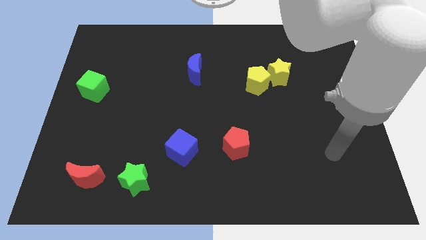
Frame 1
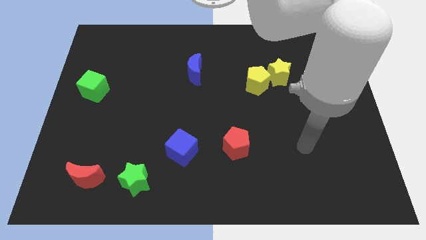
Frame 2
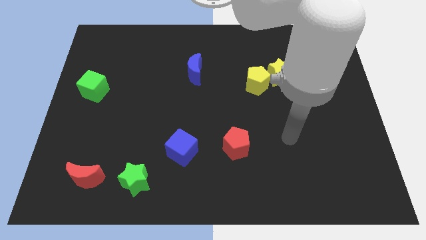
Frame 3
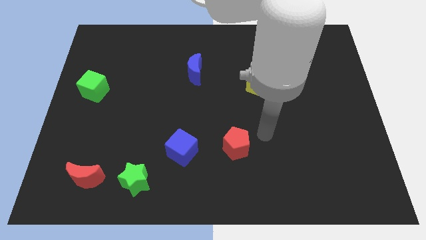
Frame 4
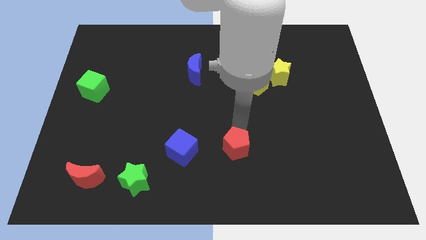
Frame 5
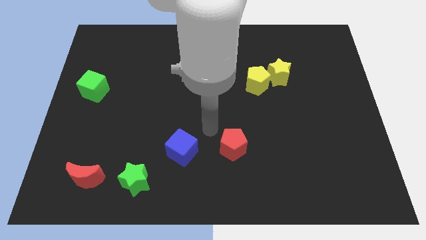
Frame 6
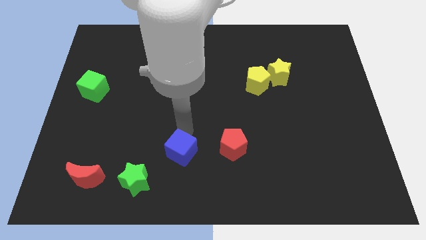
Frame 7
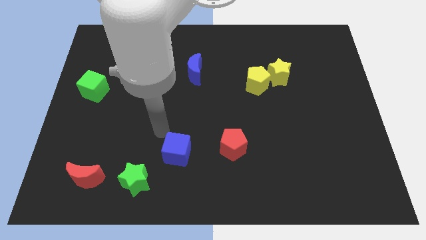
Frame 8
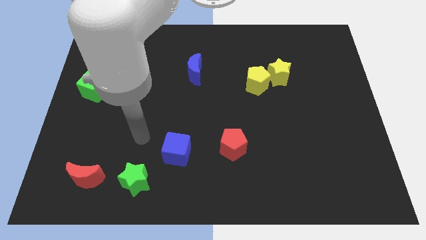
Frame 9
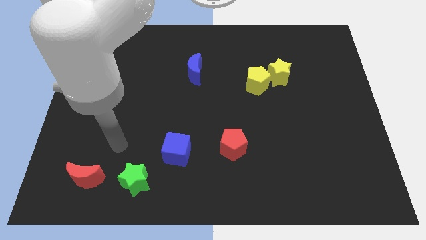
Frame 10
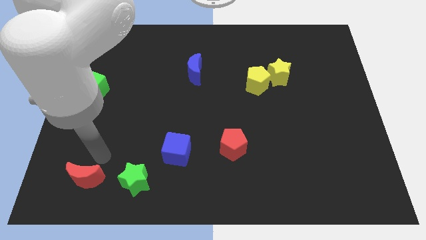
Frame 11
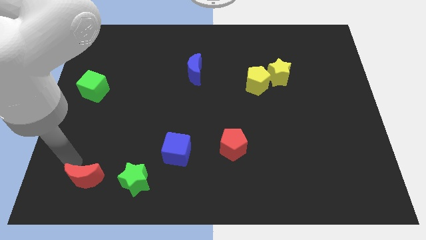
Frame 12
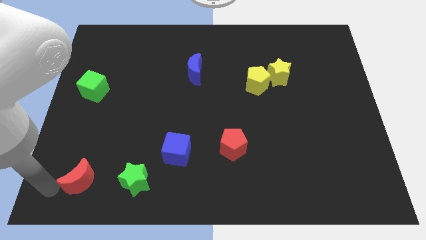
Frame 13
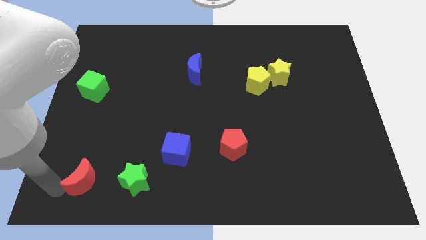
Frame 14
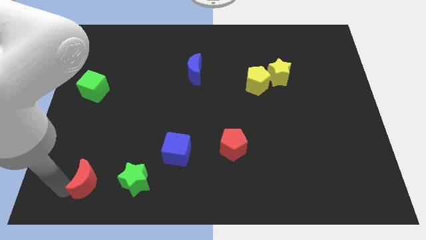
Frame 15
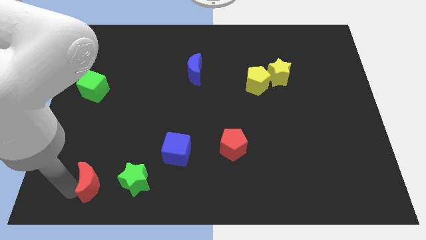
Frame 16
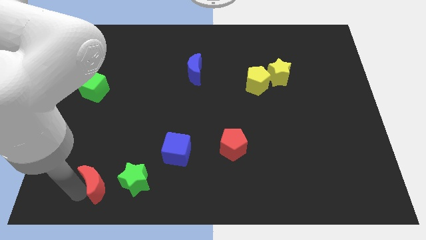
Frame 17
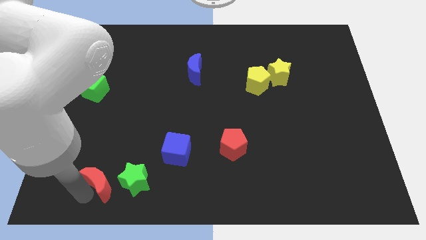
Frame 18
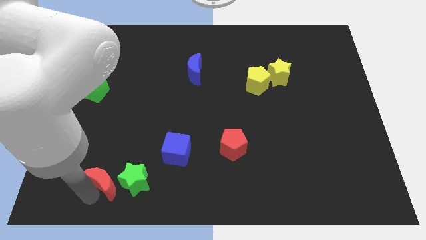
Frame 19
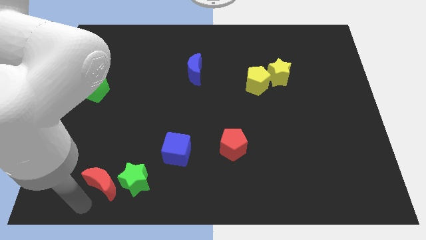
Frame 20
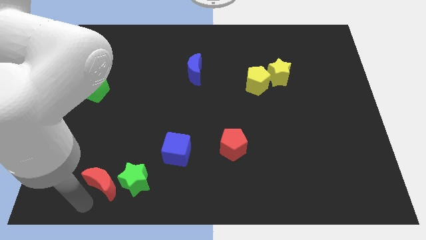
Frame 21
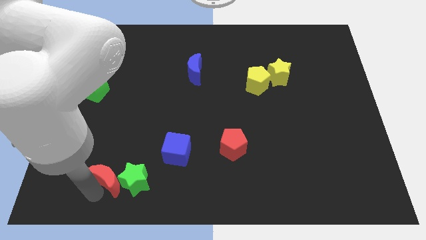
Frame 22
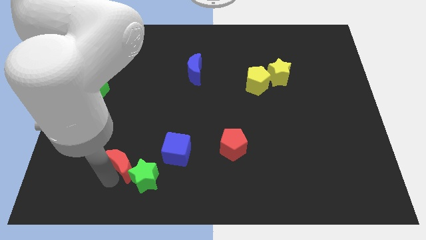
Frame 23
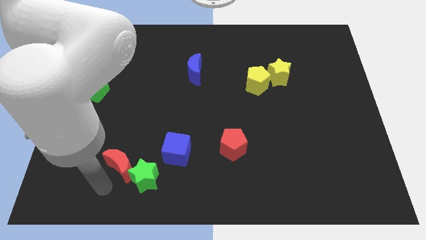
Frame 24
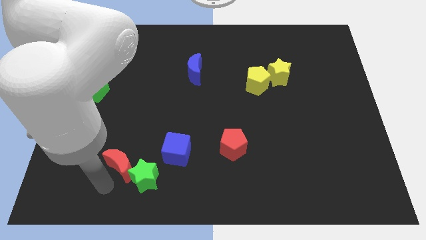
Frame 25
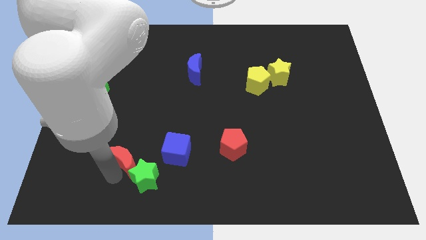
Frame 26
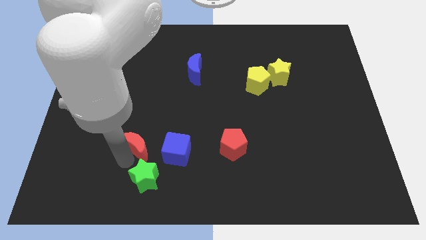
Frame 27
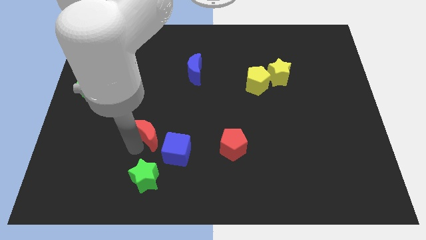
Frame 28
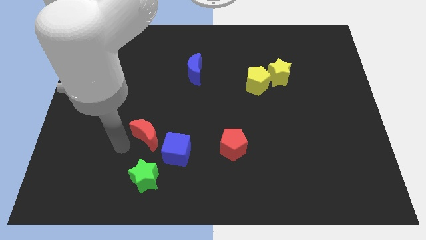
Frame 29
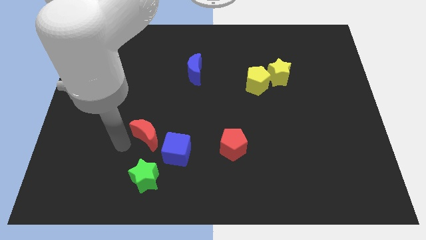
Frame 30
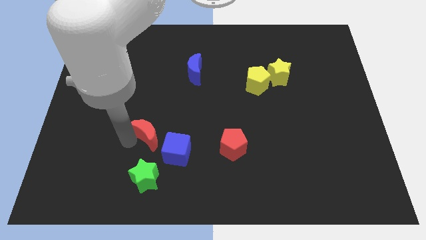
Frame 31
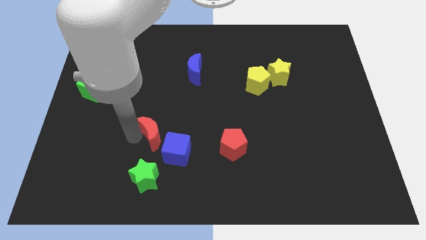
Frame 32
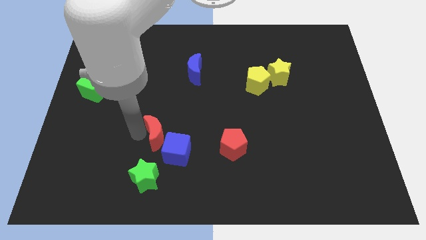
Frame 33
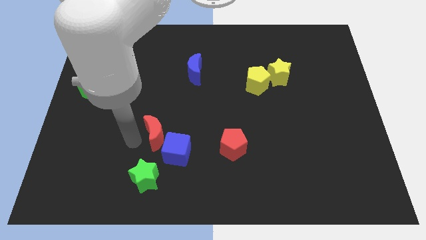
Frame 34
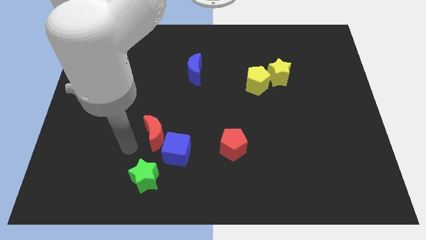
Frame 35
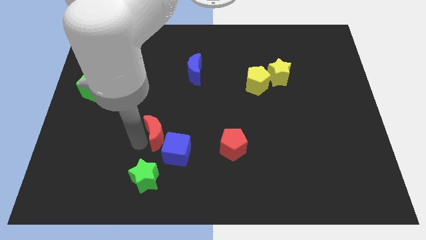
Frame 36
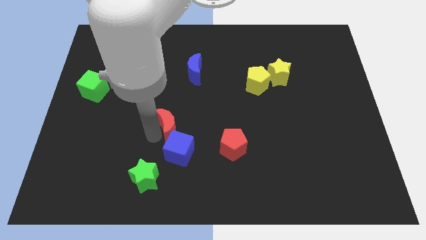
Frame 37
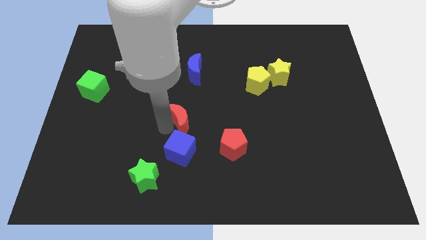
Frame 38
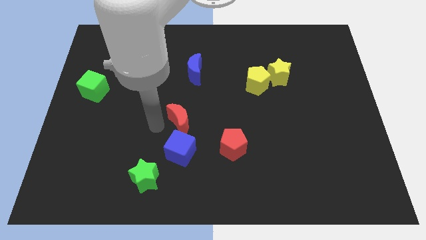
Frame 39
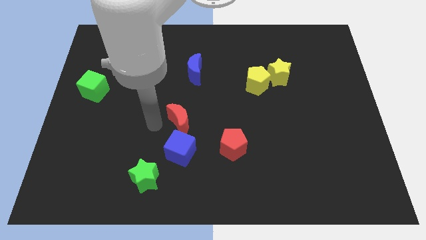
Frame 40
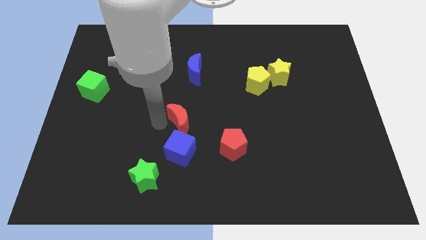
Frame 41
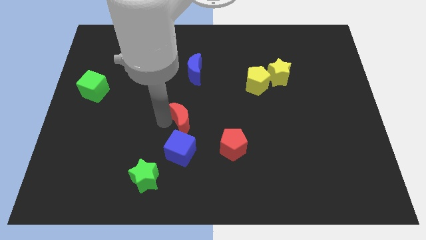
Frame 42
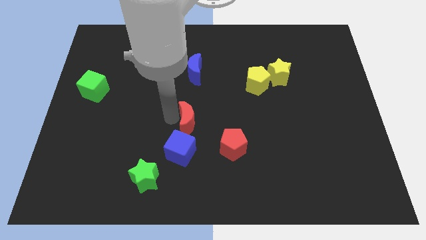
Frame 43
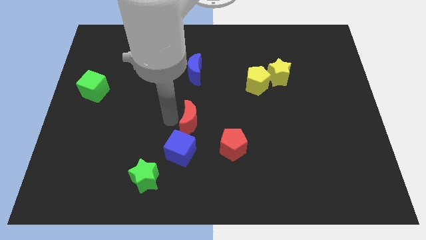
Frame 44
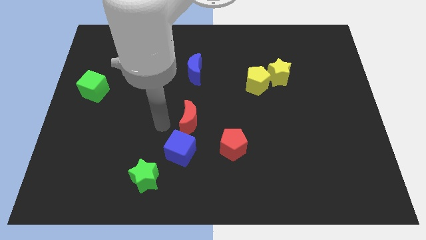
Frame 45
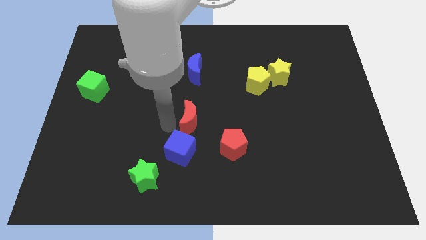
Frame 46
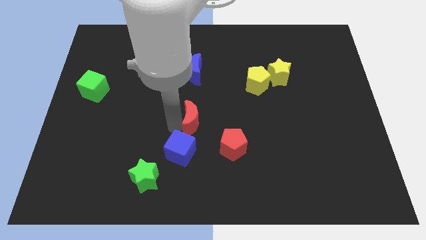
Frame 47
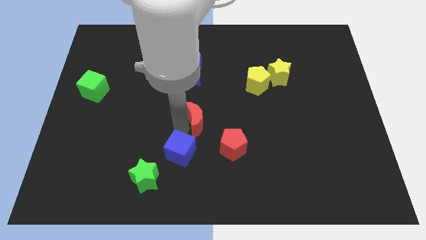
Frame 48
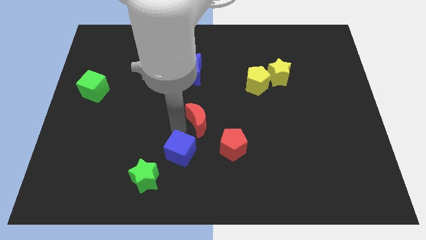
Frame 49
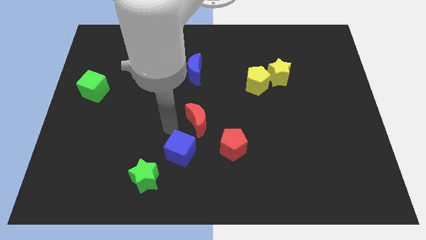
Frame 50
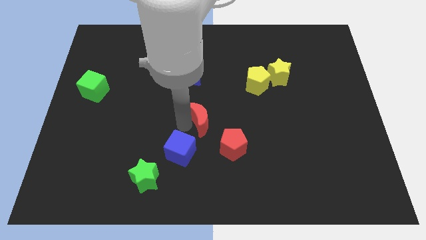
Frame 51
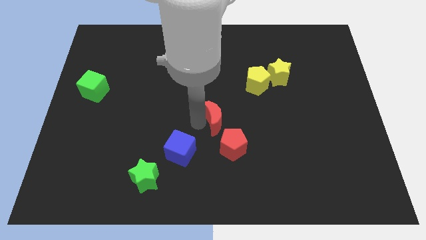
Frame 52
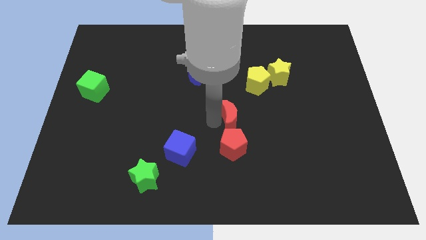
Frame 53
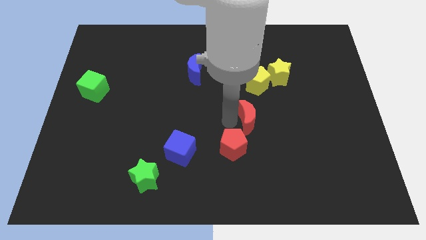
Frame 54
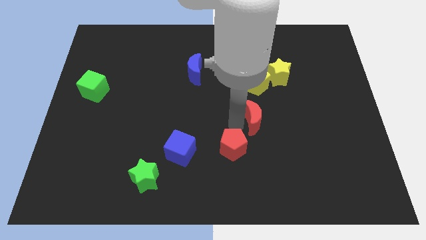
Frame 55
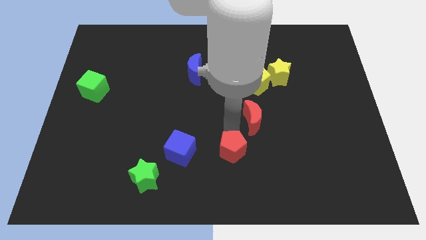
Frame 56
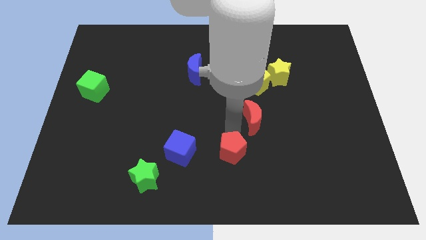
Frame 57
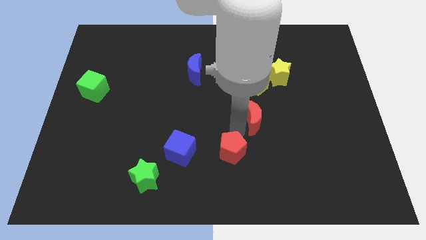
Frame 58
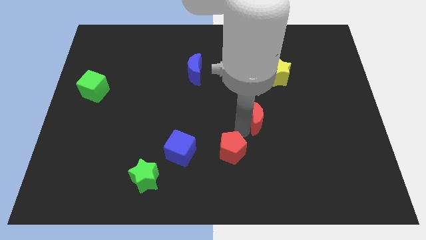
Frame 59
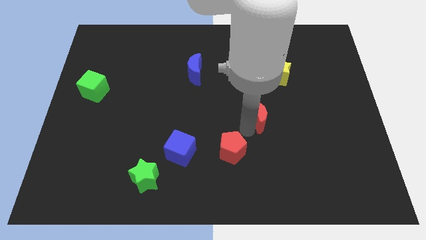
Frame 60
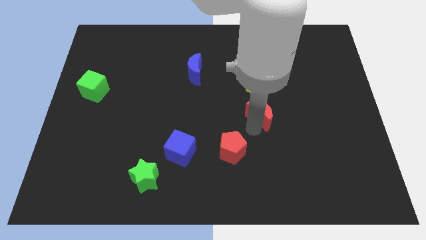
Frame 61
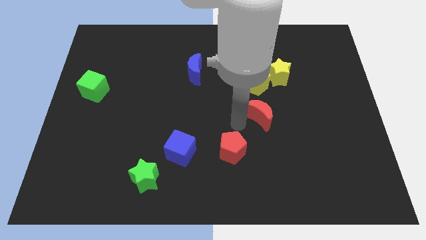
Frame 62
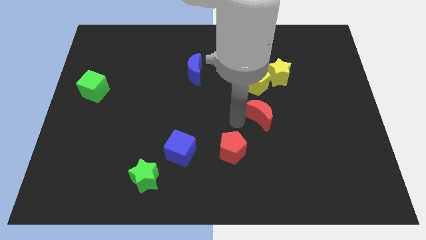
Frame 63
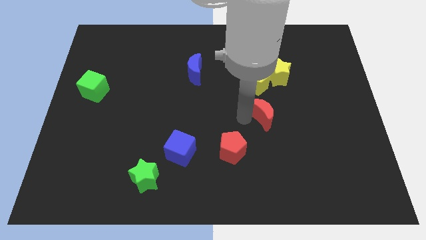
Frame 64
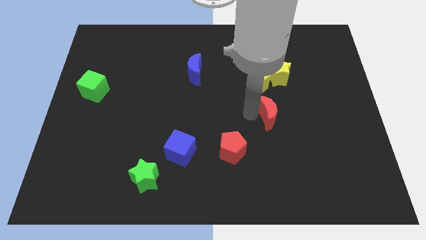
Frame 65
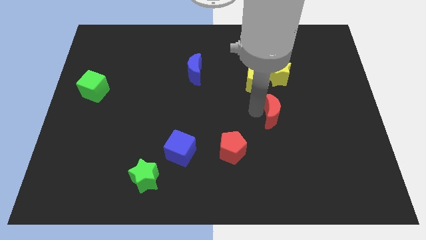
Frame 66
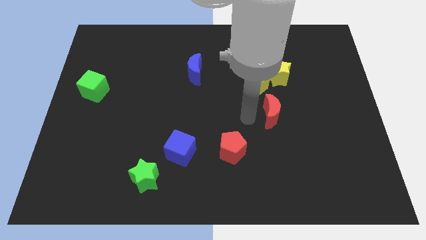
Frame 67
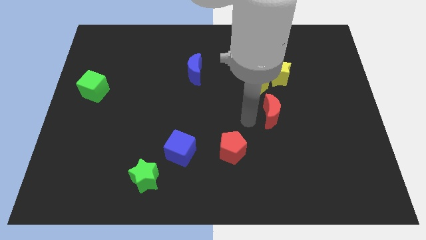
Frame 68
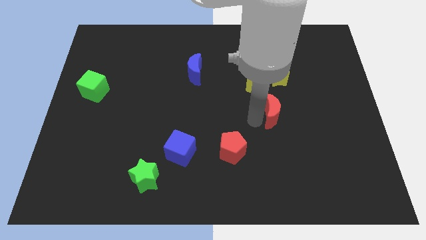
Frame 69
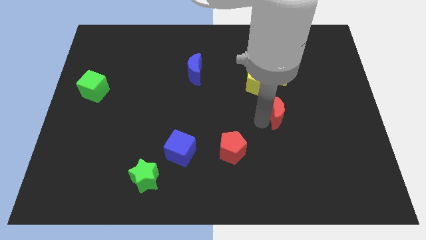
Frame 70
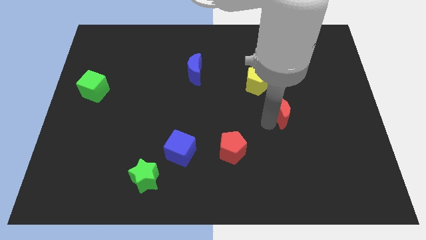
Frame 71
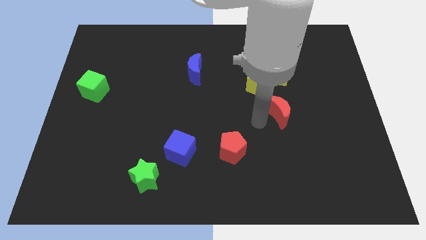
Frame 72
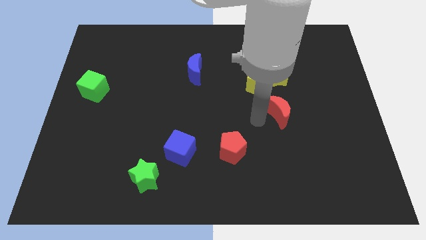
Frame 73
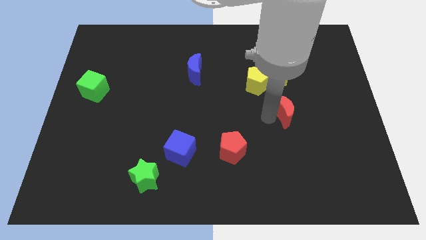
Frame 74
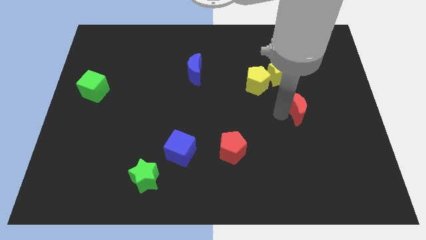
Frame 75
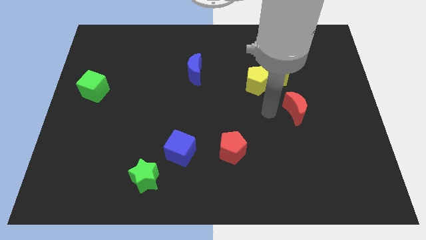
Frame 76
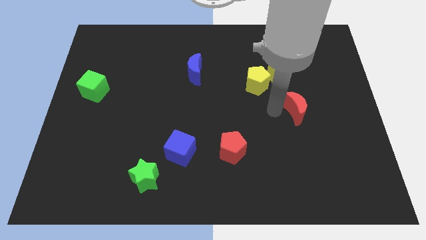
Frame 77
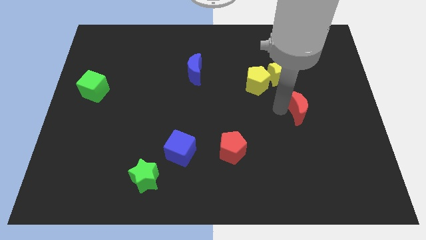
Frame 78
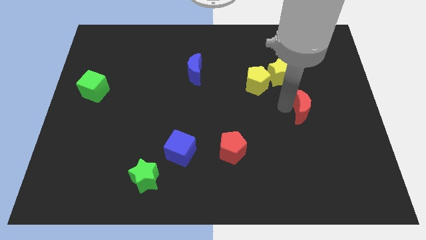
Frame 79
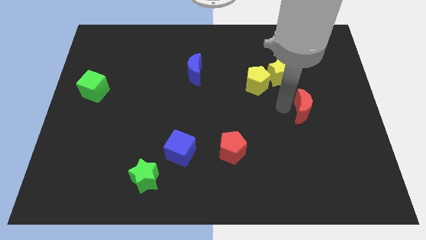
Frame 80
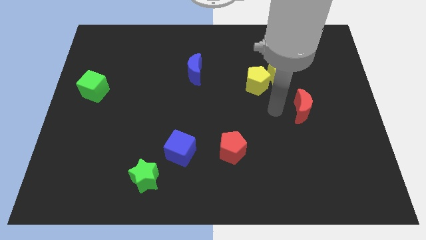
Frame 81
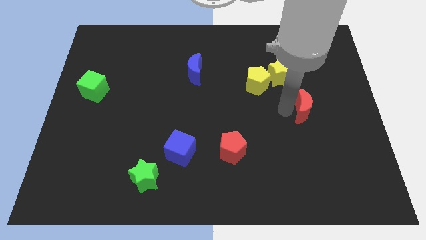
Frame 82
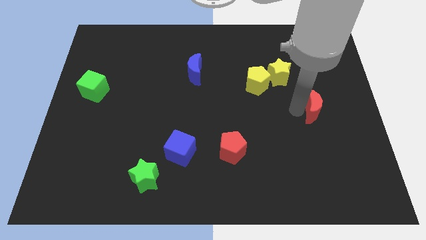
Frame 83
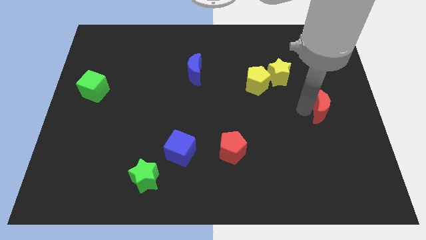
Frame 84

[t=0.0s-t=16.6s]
push the red moon to the right side of the board
